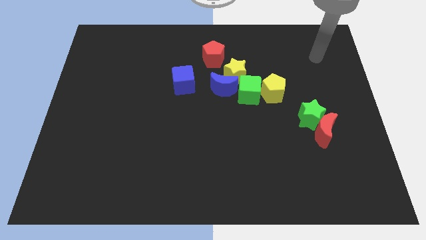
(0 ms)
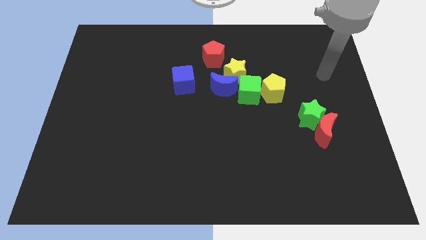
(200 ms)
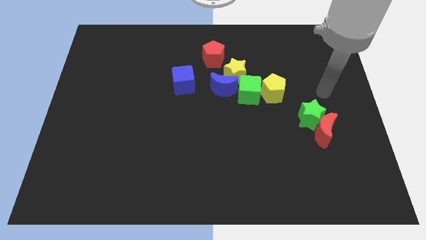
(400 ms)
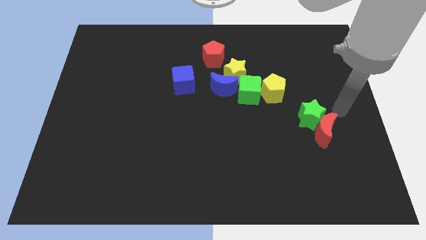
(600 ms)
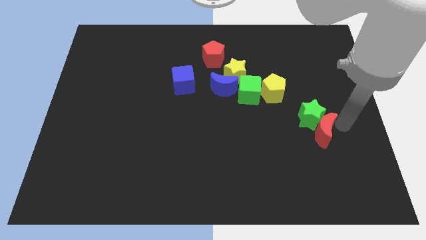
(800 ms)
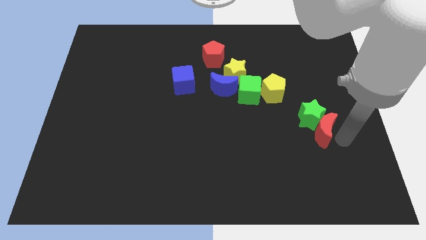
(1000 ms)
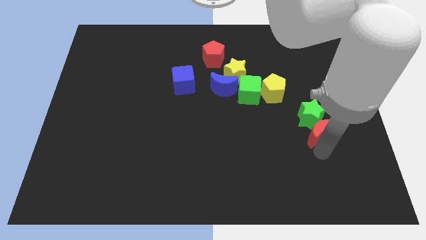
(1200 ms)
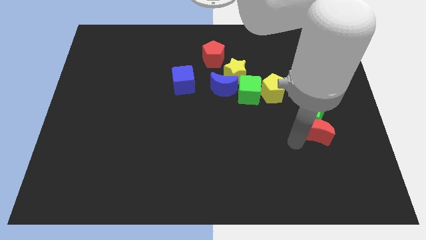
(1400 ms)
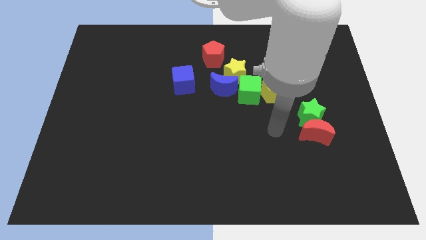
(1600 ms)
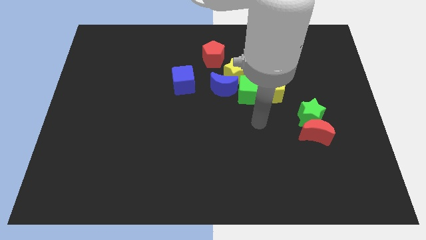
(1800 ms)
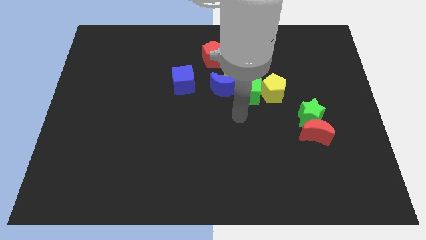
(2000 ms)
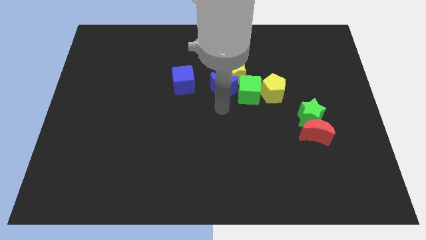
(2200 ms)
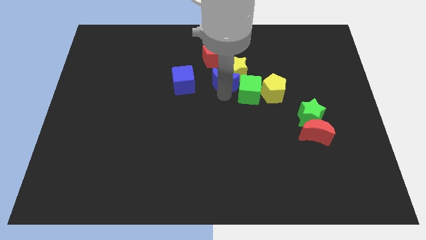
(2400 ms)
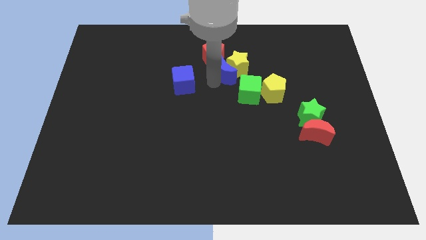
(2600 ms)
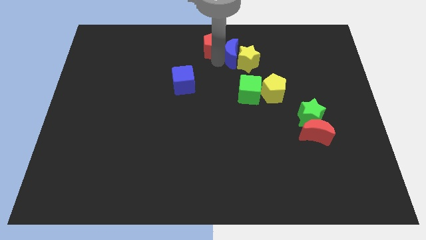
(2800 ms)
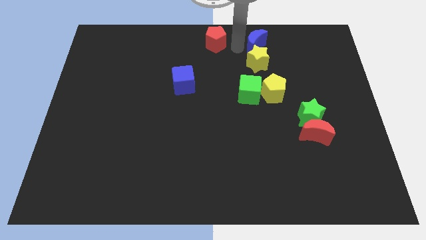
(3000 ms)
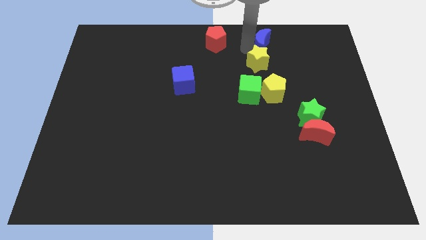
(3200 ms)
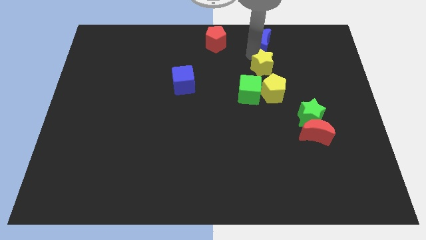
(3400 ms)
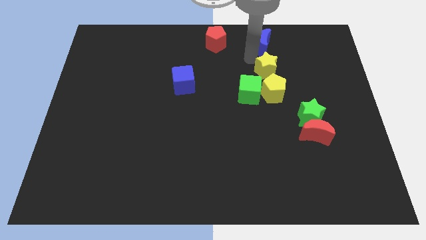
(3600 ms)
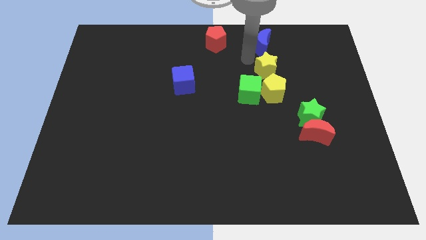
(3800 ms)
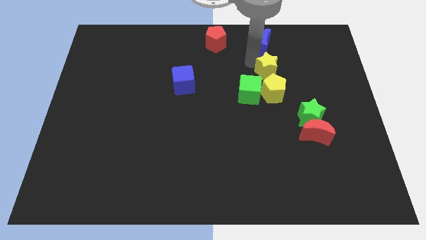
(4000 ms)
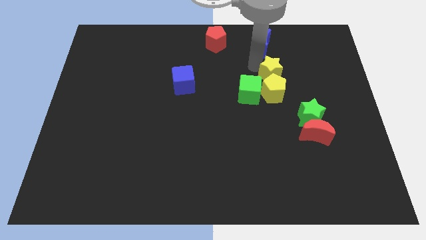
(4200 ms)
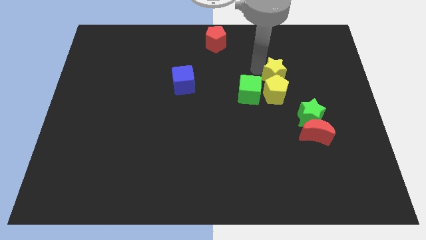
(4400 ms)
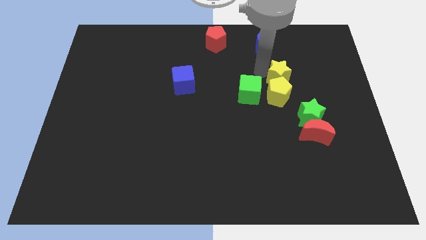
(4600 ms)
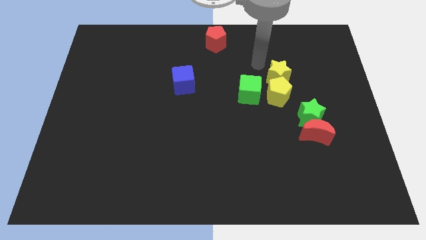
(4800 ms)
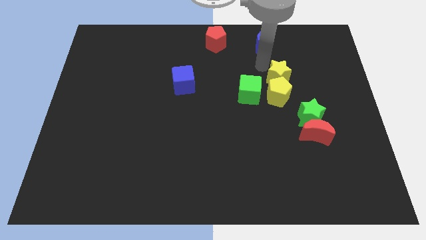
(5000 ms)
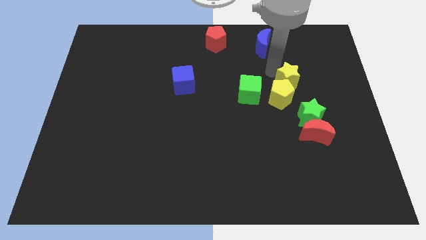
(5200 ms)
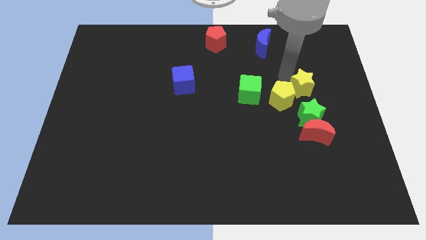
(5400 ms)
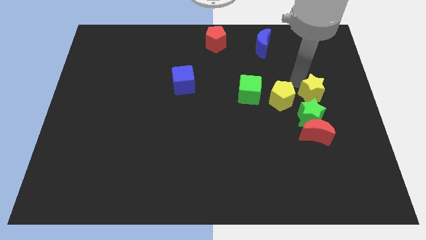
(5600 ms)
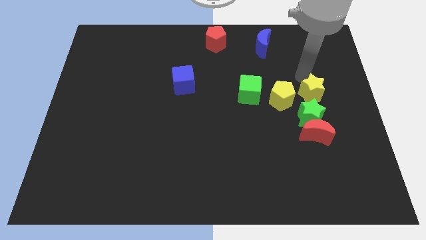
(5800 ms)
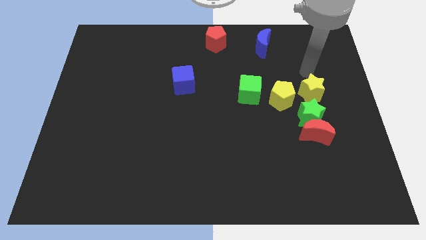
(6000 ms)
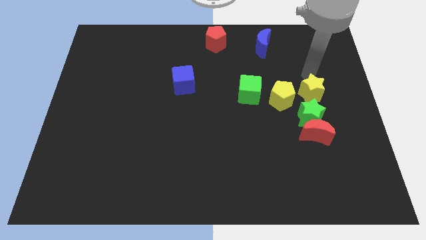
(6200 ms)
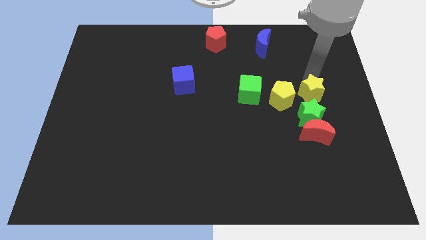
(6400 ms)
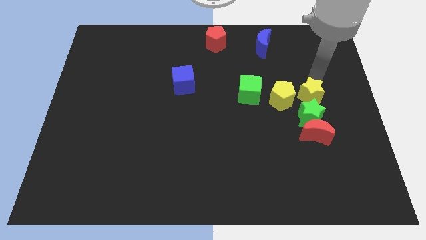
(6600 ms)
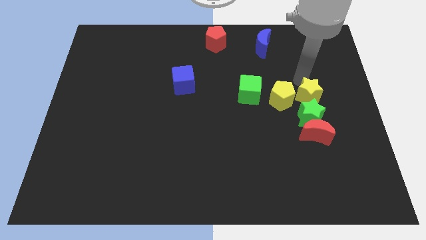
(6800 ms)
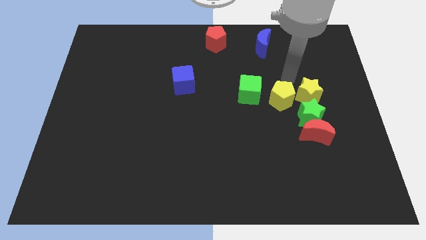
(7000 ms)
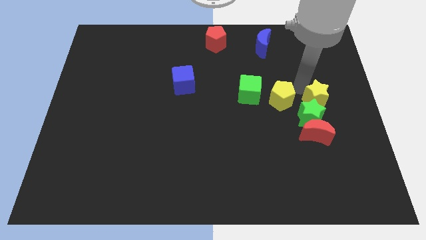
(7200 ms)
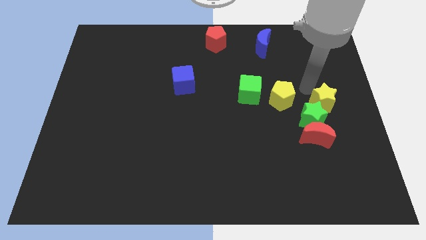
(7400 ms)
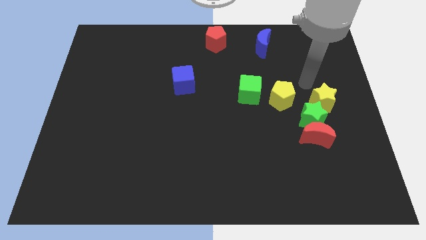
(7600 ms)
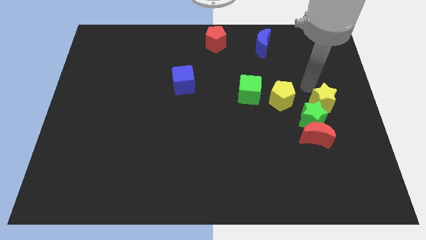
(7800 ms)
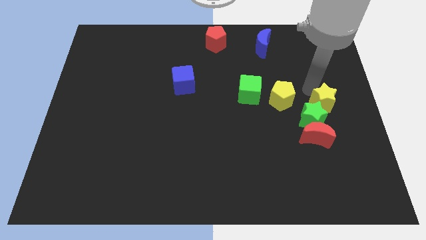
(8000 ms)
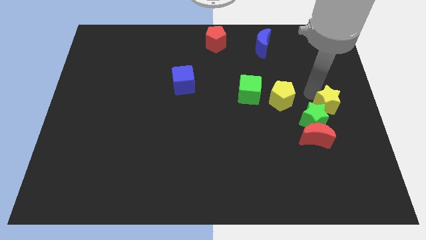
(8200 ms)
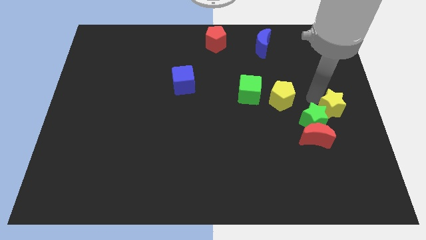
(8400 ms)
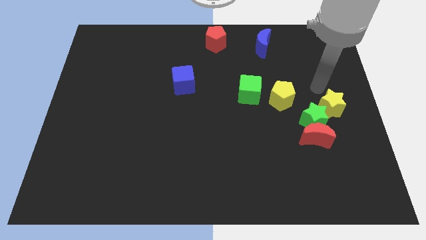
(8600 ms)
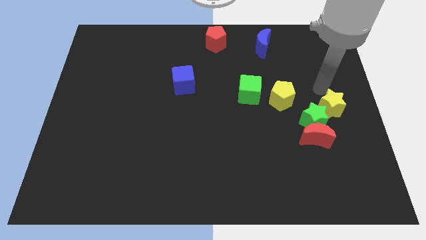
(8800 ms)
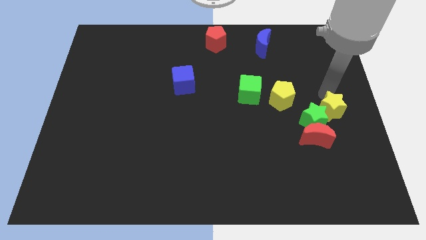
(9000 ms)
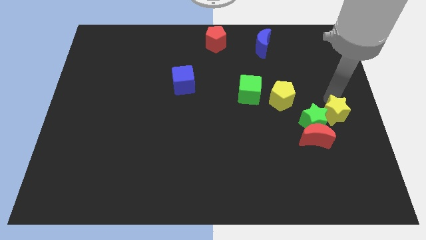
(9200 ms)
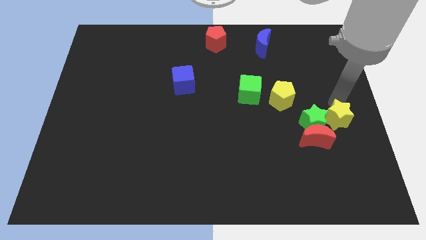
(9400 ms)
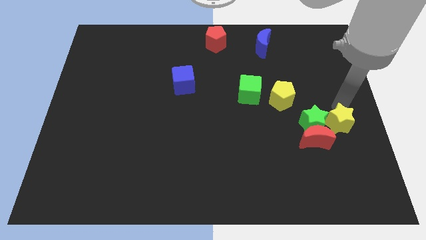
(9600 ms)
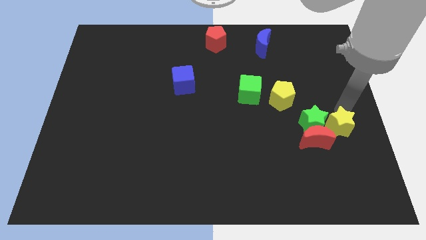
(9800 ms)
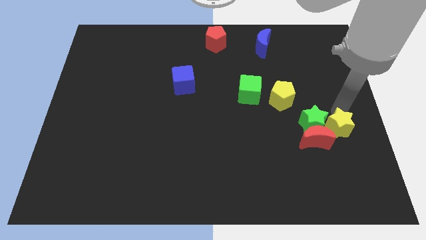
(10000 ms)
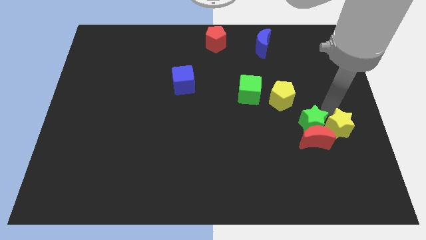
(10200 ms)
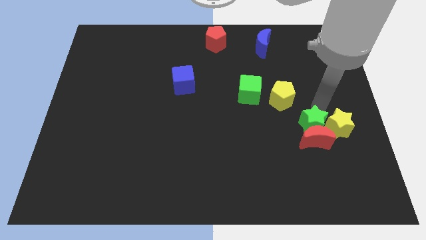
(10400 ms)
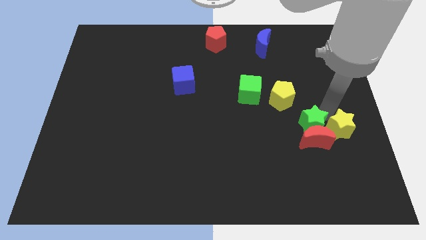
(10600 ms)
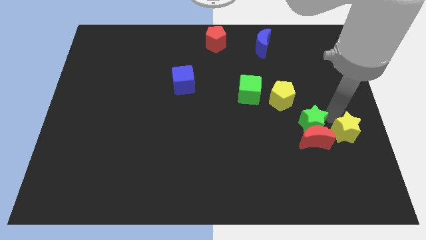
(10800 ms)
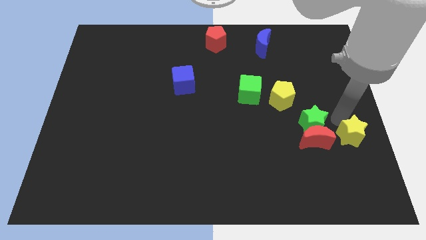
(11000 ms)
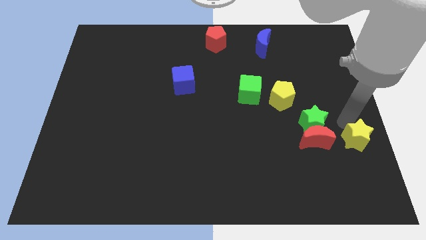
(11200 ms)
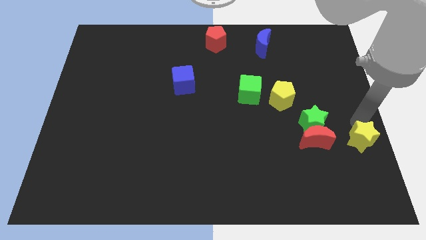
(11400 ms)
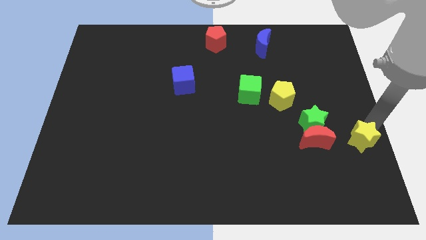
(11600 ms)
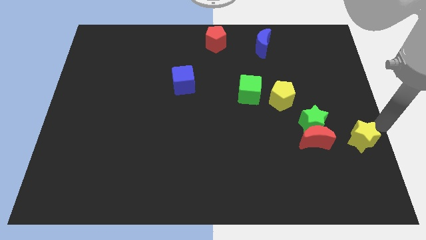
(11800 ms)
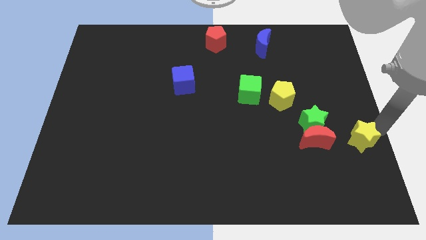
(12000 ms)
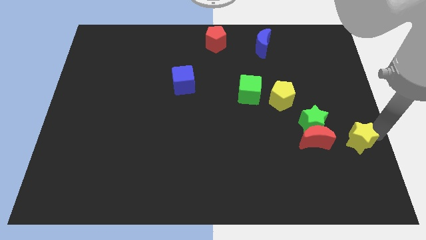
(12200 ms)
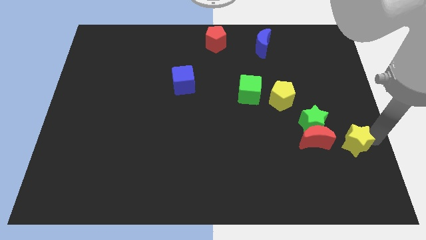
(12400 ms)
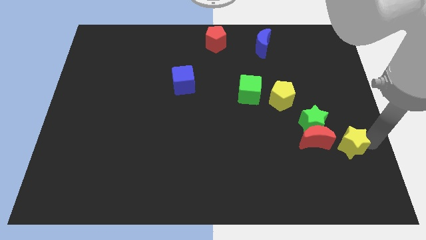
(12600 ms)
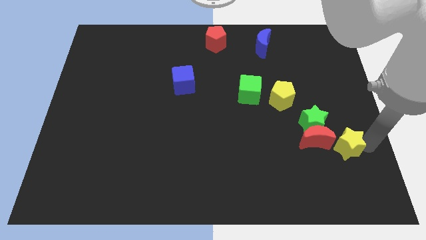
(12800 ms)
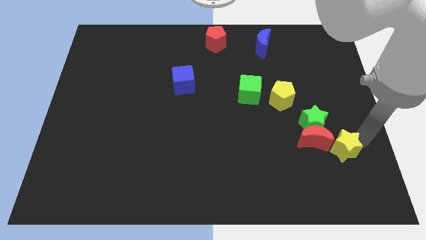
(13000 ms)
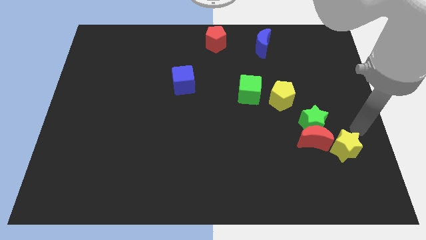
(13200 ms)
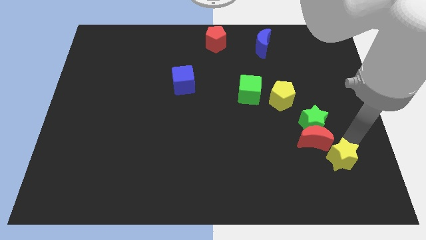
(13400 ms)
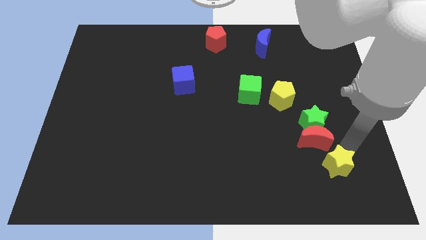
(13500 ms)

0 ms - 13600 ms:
push the yellow star below the red moon

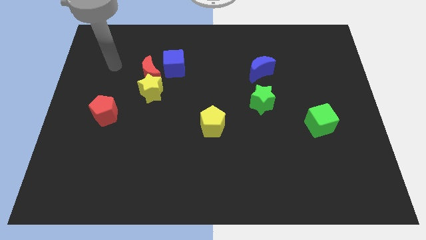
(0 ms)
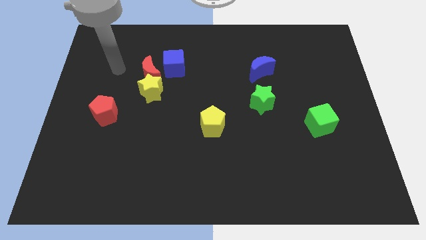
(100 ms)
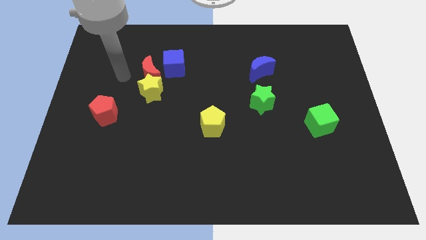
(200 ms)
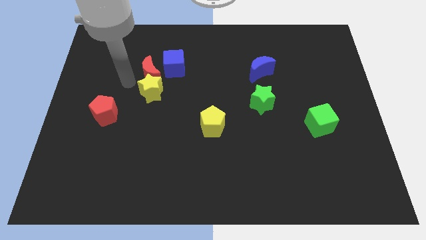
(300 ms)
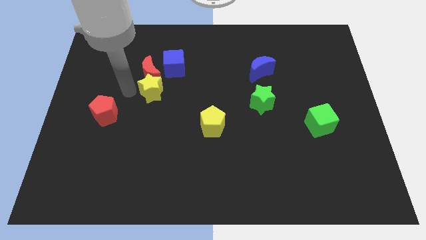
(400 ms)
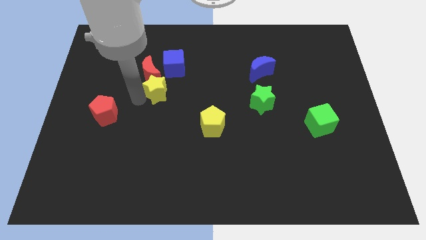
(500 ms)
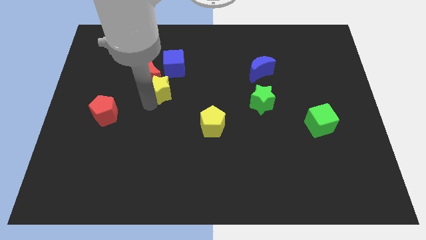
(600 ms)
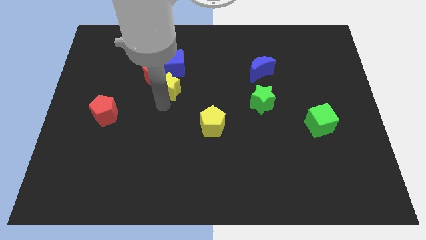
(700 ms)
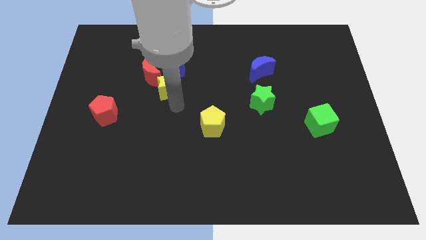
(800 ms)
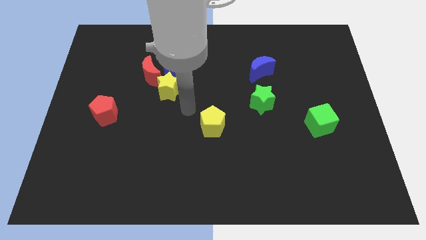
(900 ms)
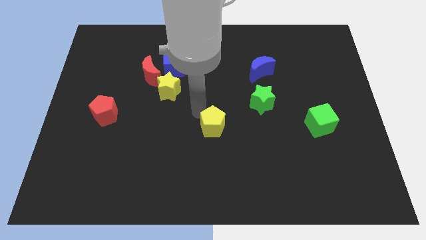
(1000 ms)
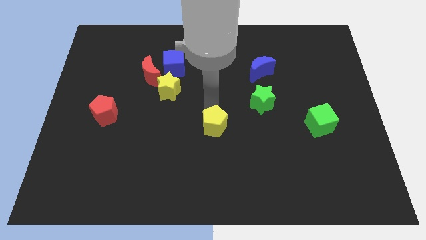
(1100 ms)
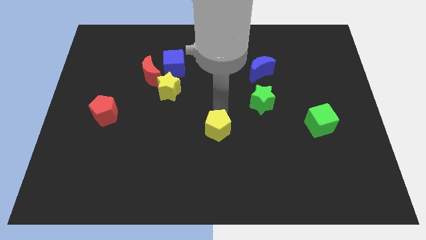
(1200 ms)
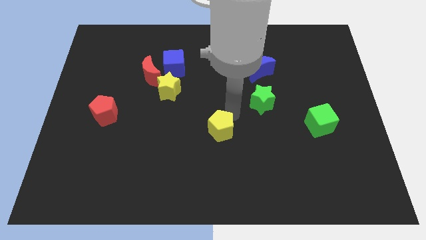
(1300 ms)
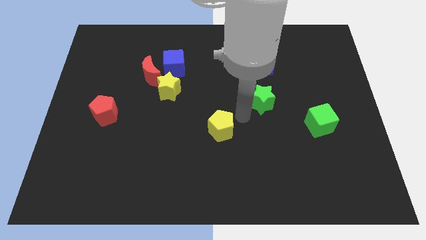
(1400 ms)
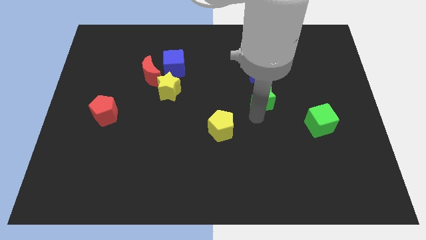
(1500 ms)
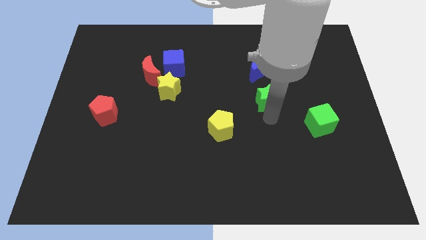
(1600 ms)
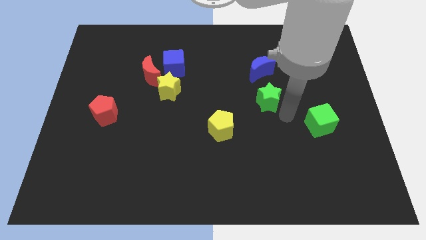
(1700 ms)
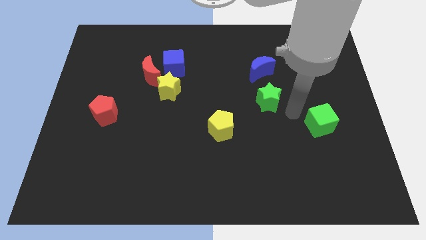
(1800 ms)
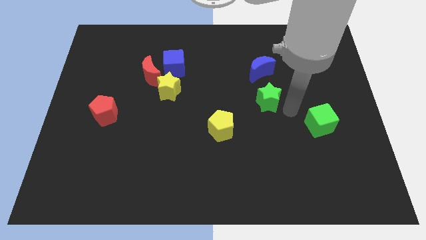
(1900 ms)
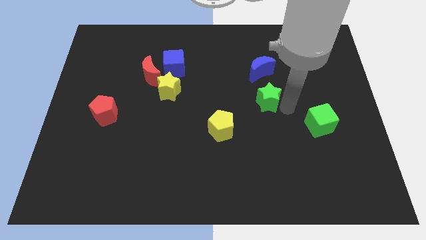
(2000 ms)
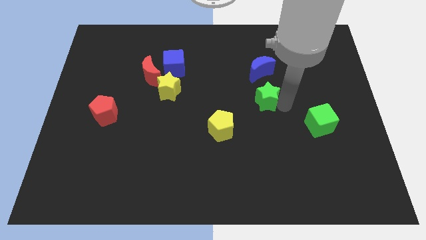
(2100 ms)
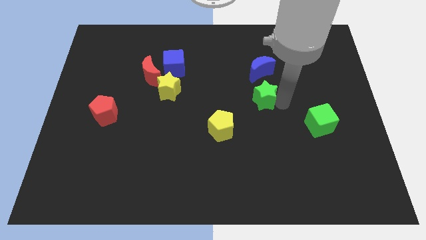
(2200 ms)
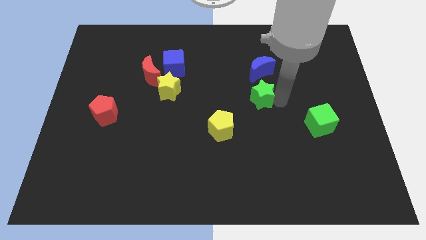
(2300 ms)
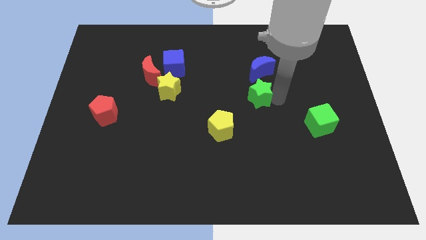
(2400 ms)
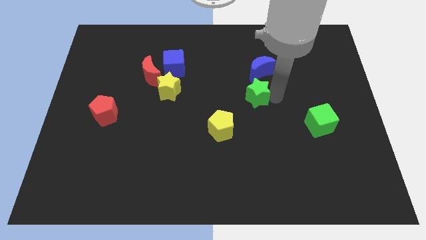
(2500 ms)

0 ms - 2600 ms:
move the green star to the bottom left side of the blue moon
